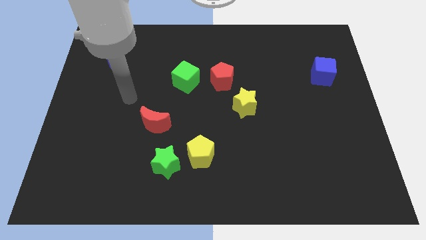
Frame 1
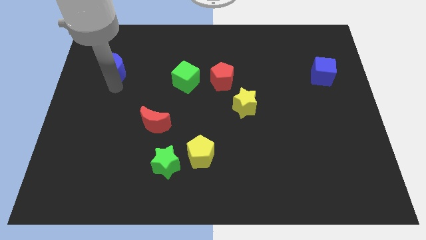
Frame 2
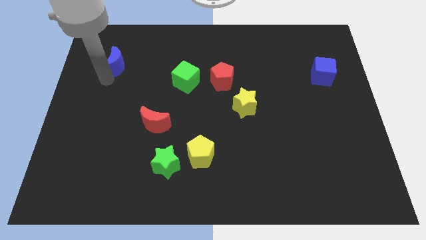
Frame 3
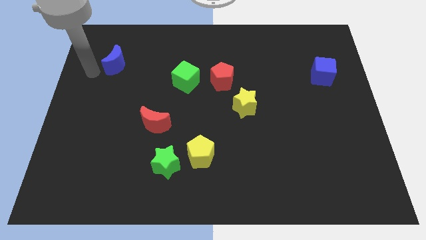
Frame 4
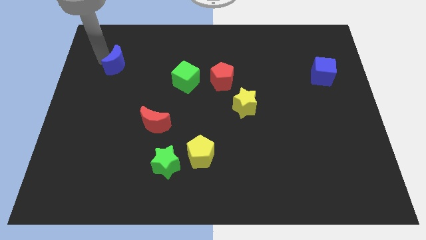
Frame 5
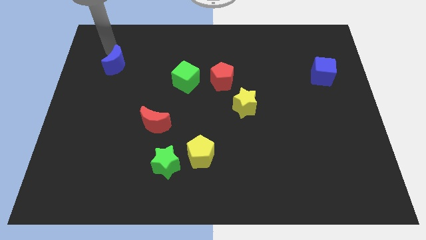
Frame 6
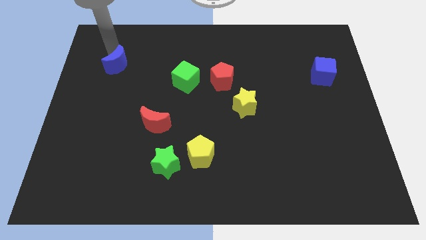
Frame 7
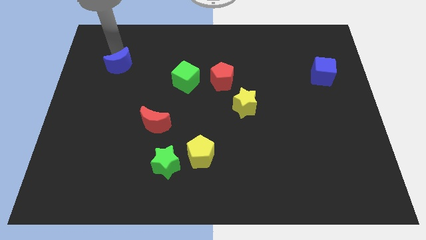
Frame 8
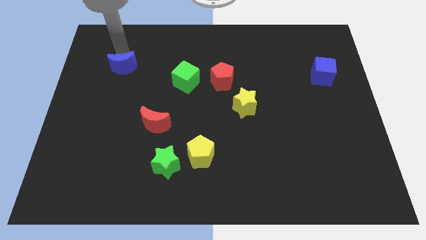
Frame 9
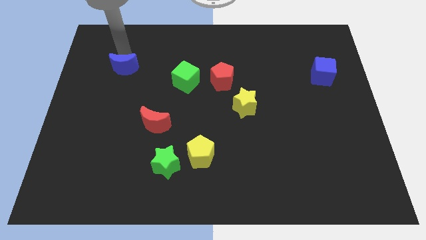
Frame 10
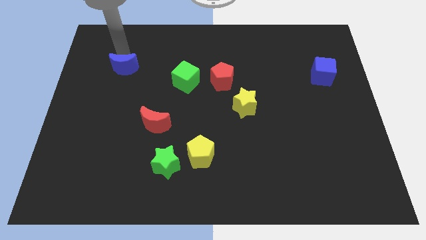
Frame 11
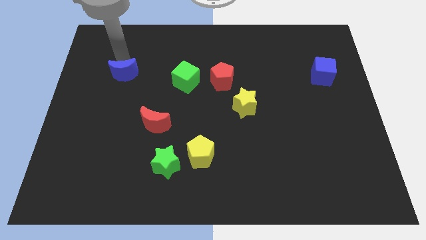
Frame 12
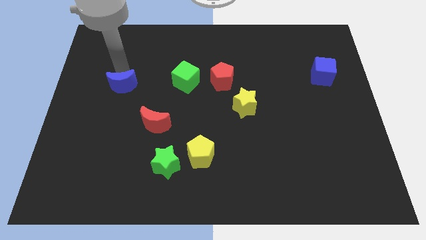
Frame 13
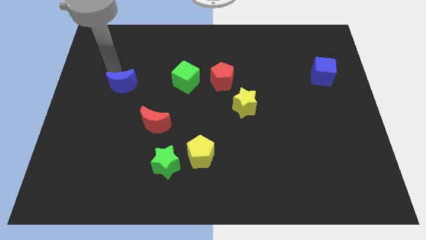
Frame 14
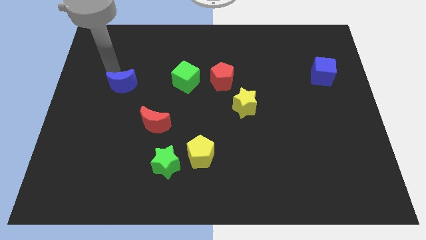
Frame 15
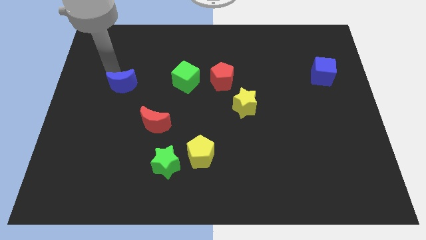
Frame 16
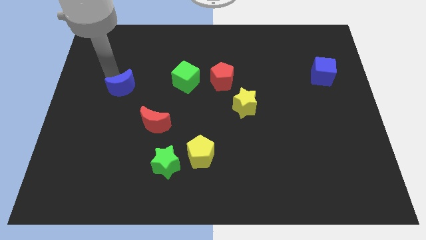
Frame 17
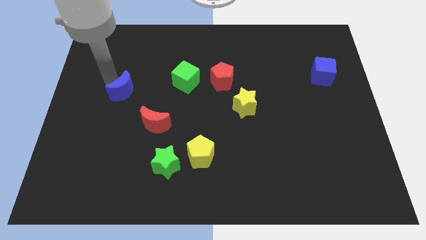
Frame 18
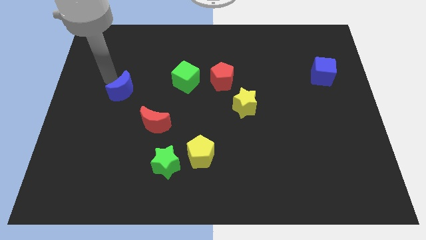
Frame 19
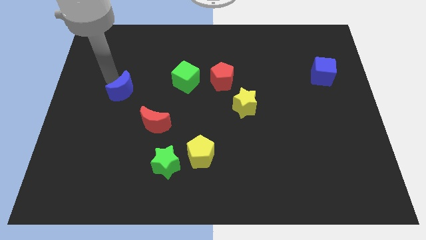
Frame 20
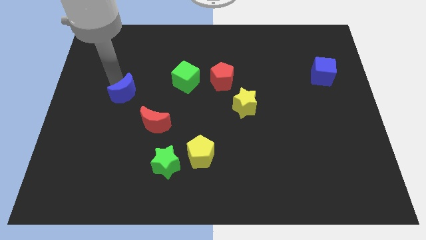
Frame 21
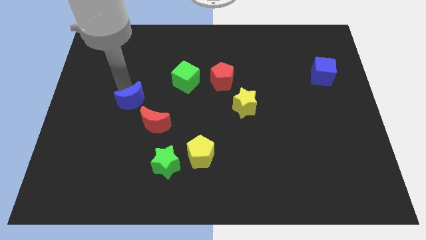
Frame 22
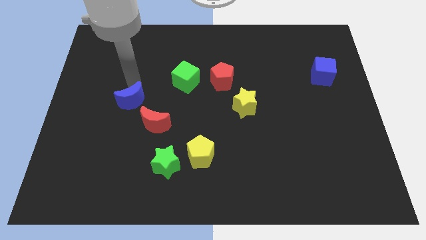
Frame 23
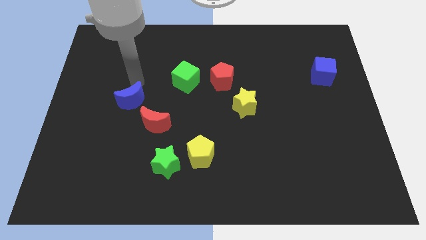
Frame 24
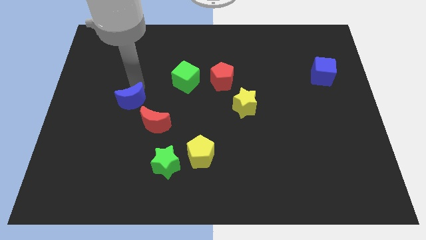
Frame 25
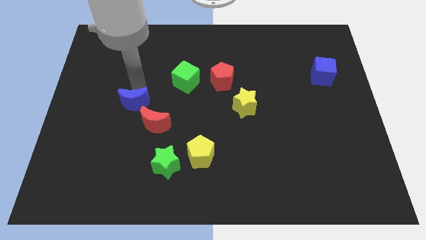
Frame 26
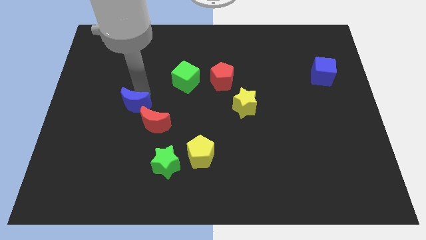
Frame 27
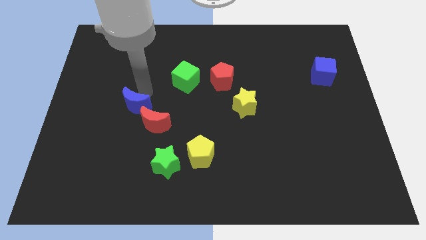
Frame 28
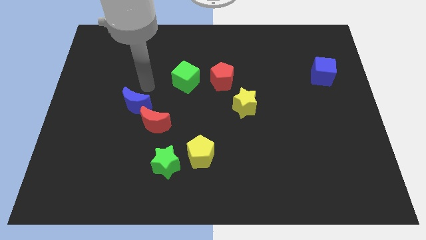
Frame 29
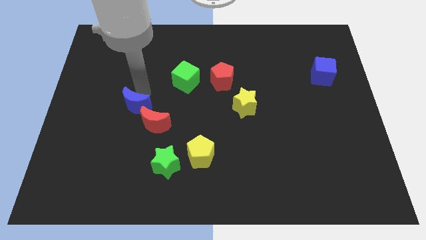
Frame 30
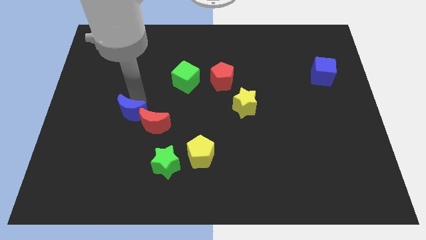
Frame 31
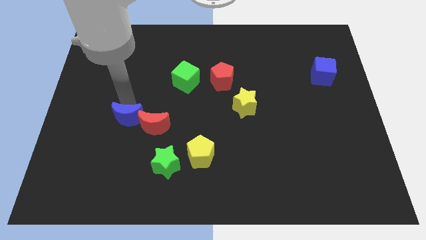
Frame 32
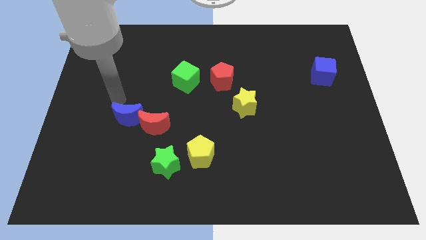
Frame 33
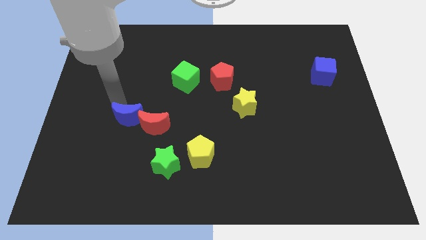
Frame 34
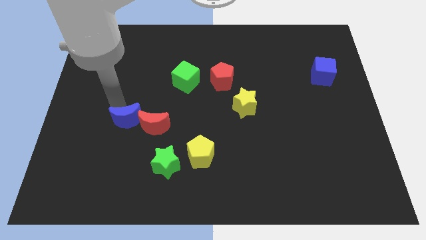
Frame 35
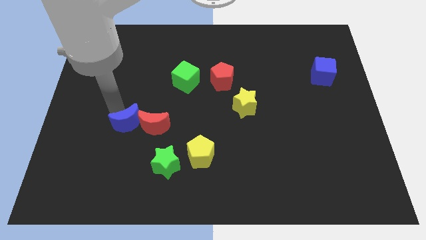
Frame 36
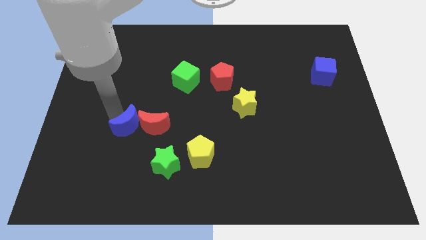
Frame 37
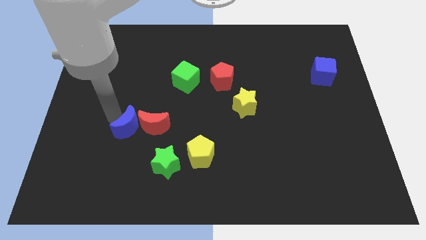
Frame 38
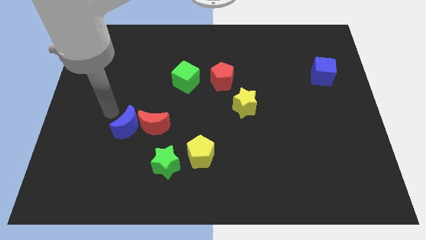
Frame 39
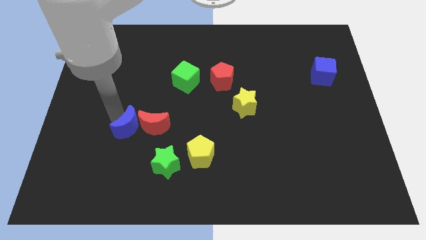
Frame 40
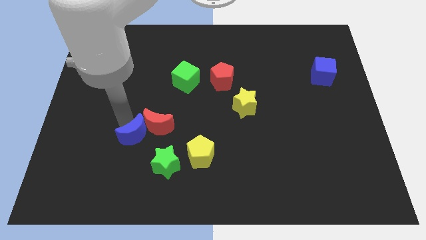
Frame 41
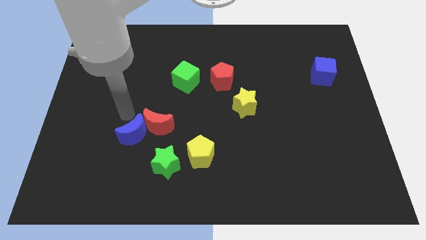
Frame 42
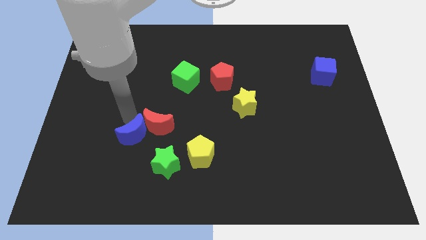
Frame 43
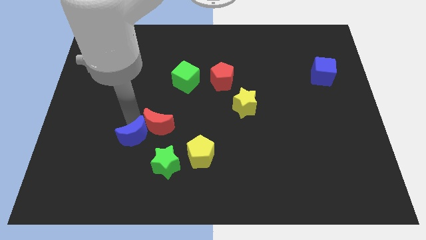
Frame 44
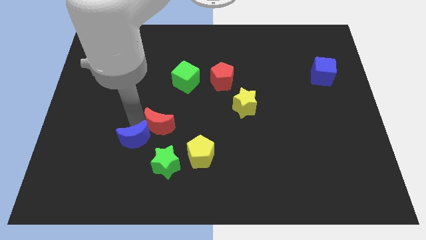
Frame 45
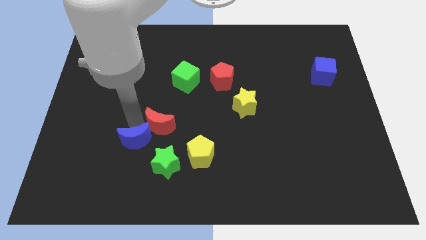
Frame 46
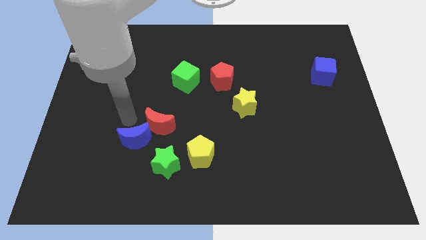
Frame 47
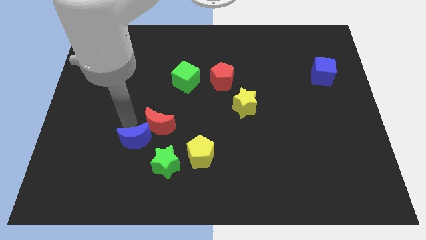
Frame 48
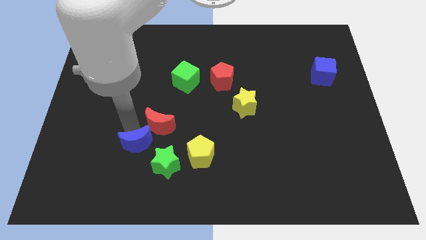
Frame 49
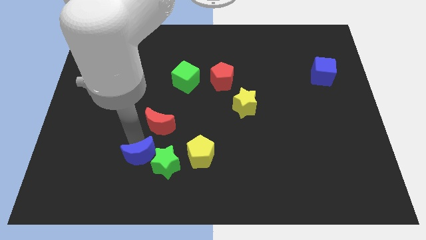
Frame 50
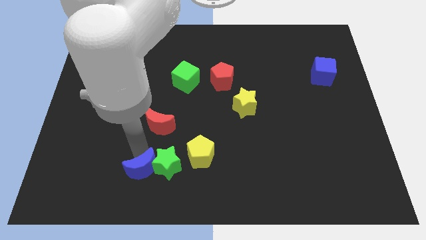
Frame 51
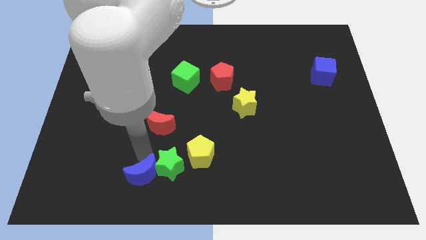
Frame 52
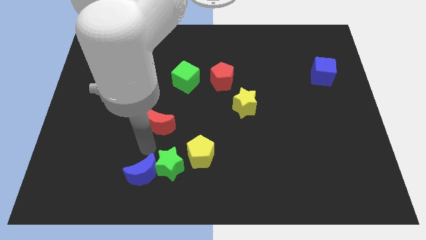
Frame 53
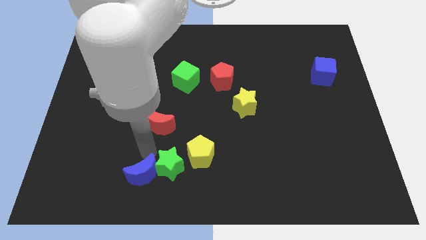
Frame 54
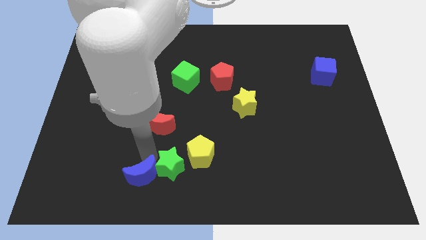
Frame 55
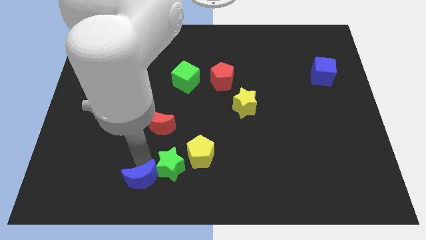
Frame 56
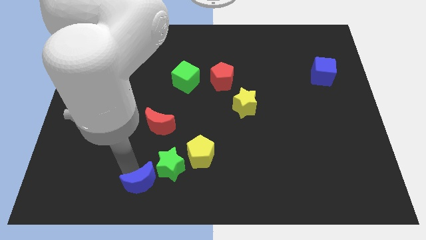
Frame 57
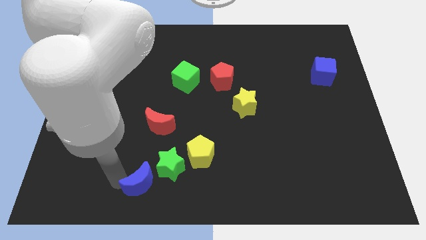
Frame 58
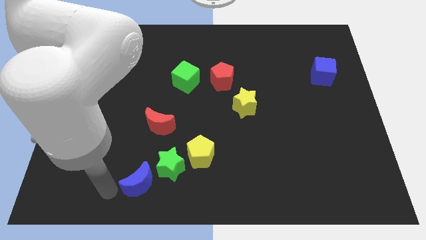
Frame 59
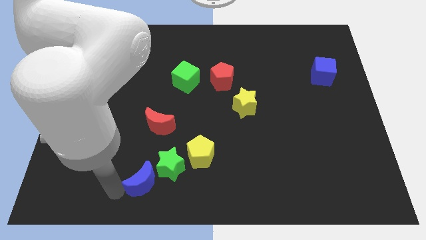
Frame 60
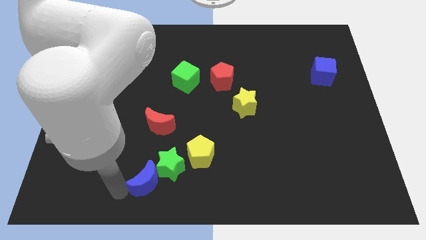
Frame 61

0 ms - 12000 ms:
slide the blue moon diagonally down and to the left of the yellow pentagon
